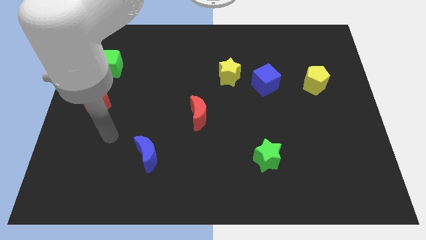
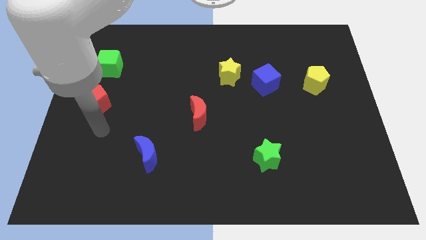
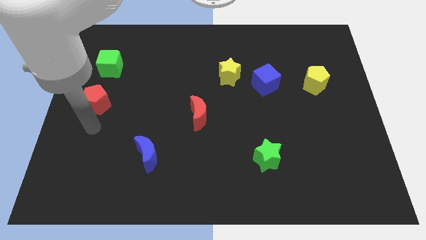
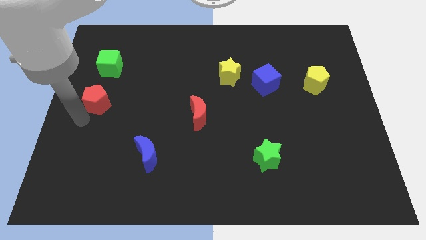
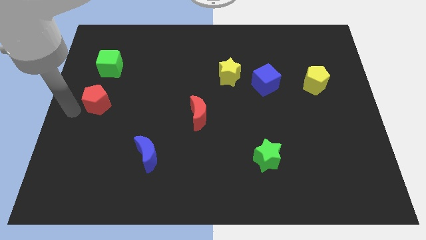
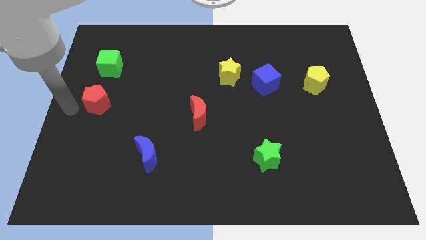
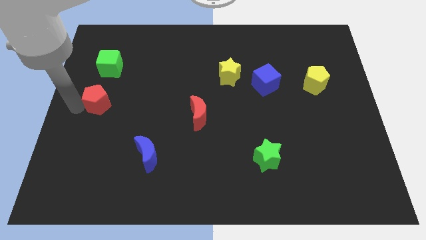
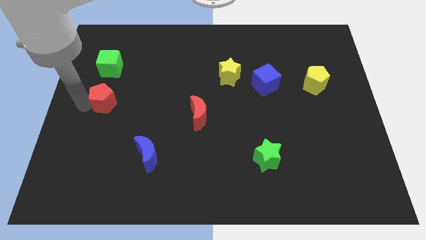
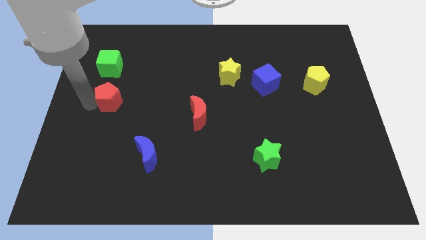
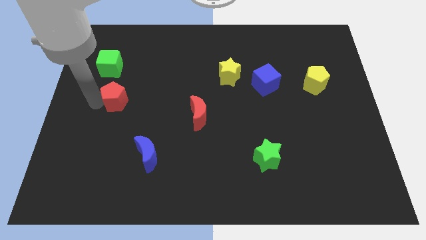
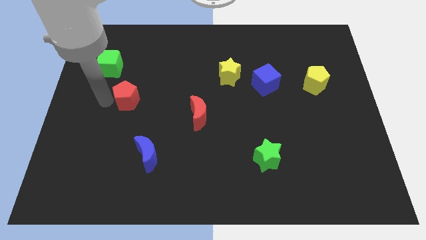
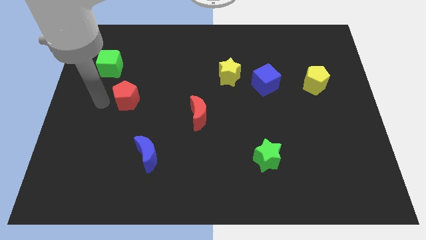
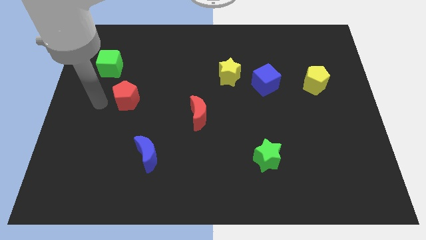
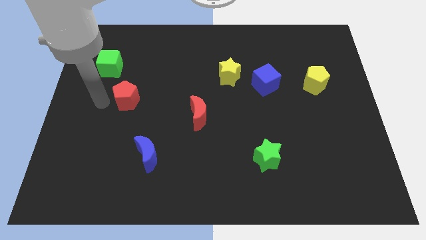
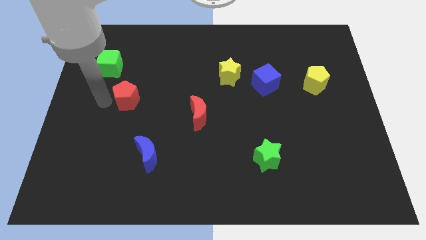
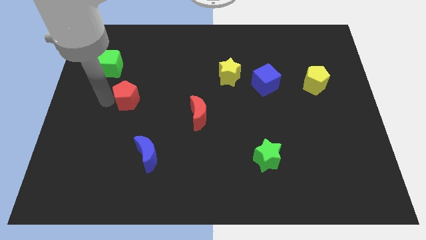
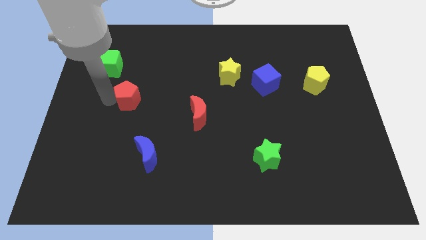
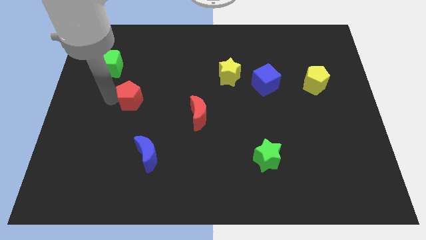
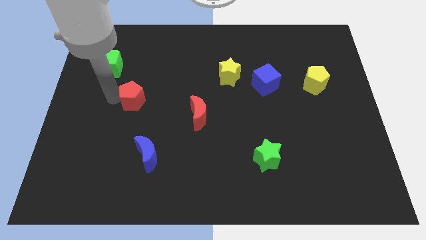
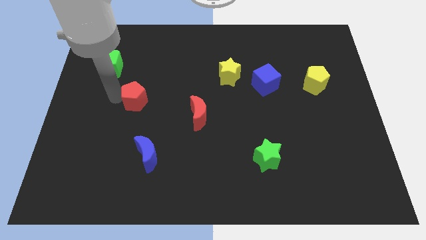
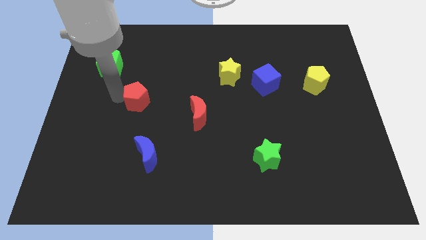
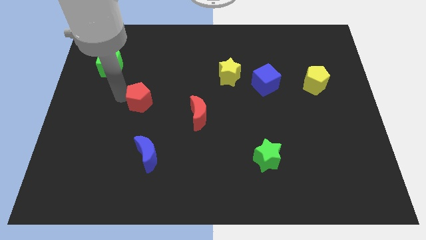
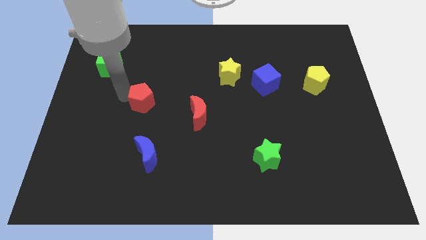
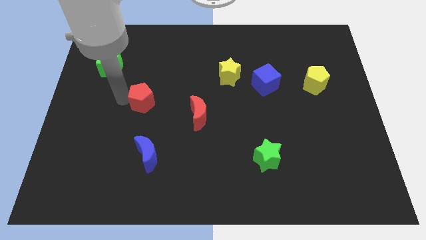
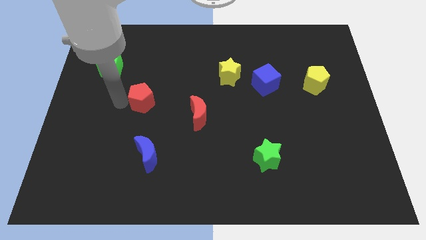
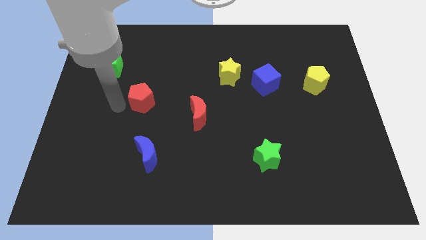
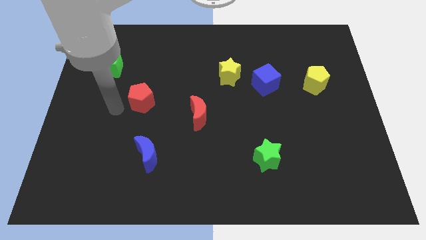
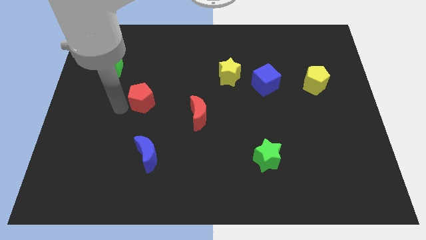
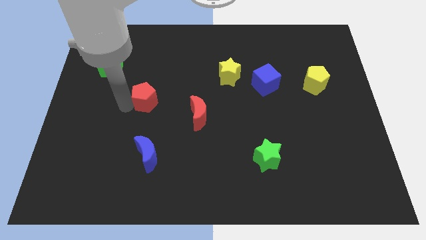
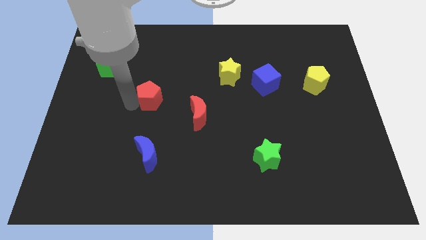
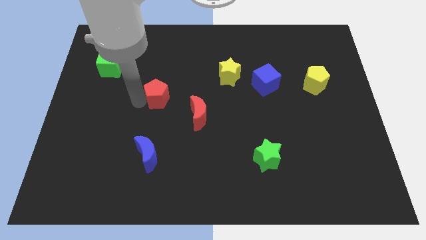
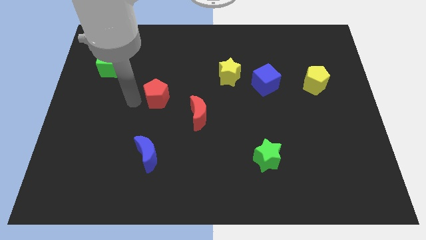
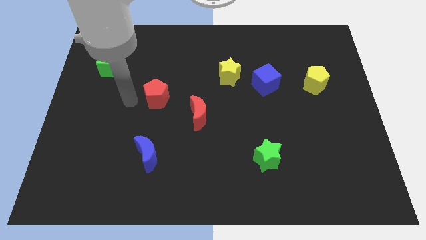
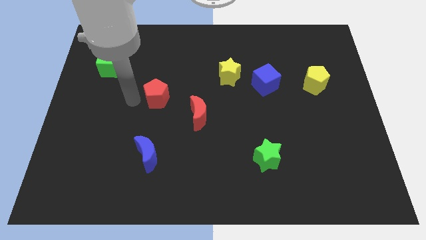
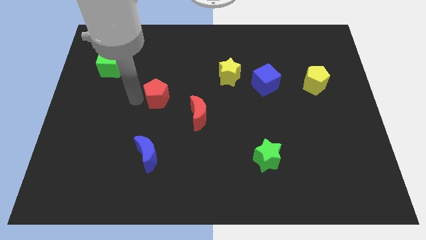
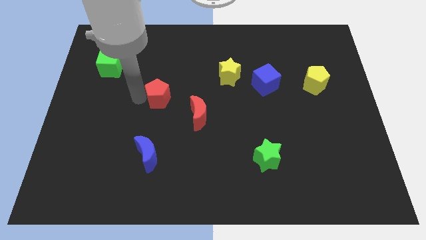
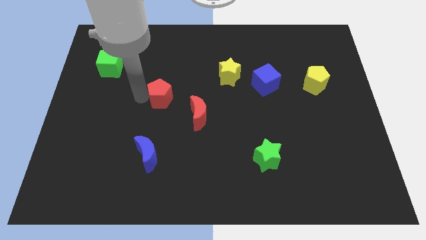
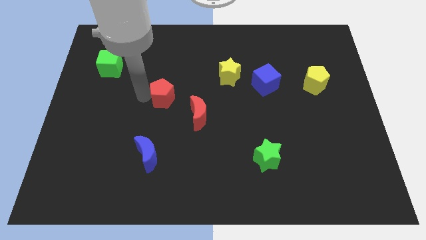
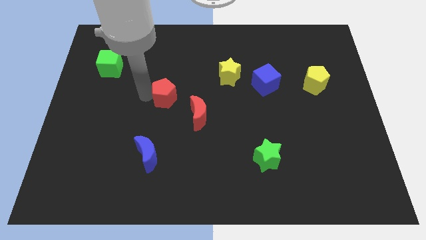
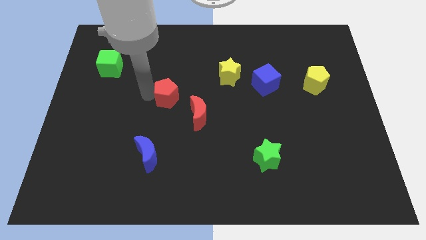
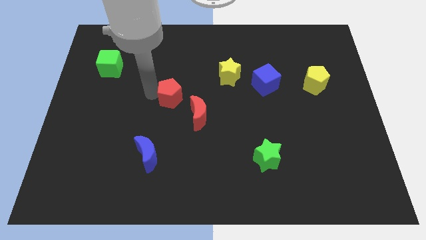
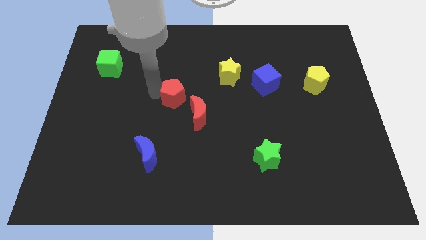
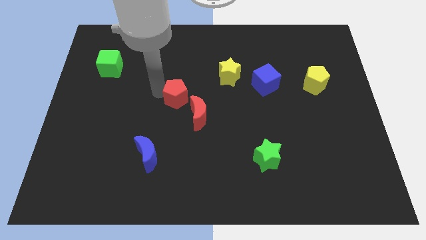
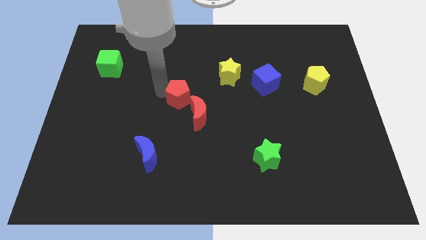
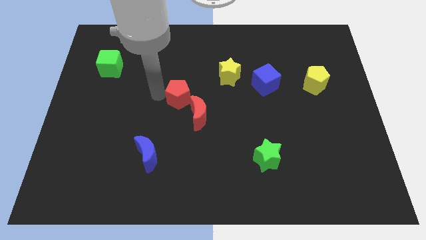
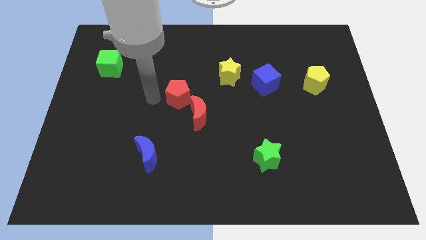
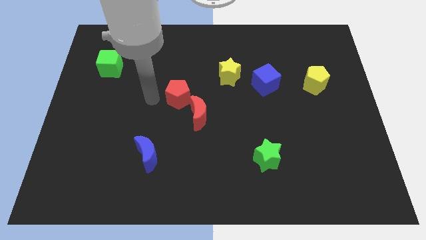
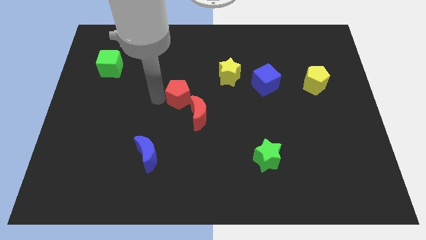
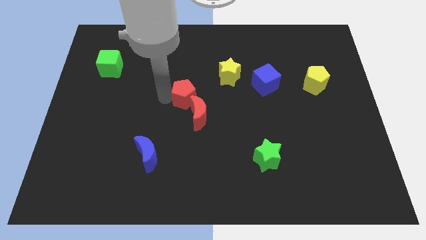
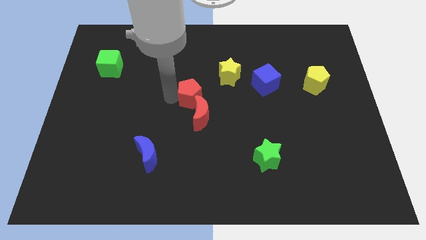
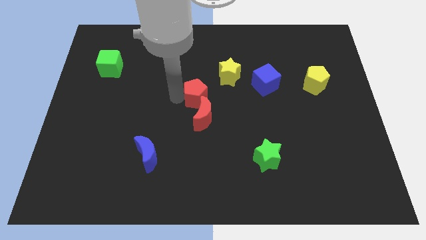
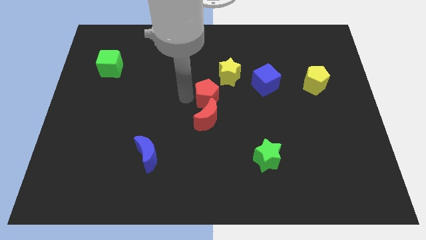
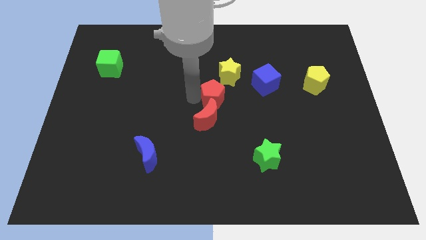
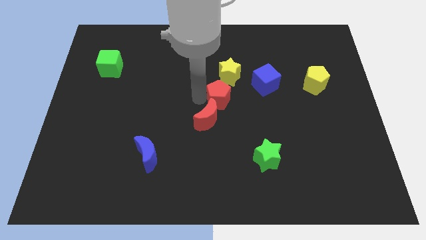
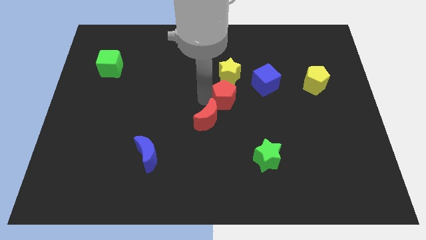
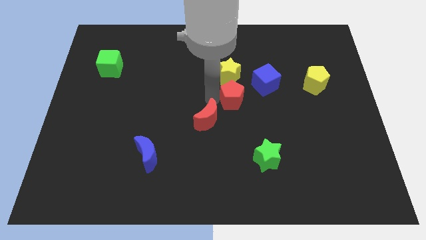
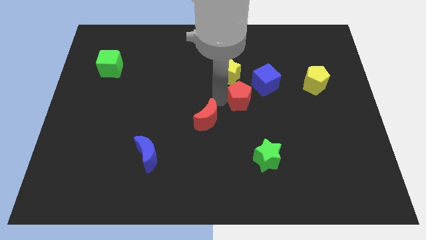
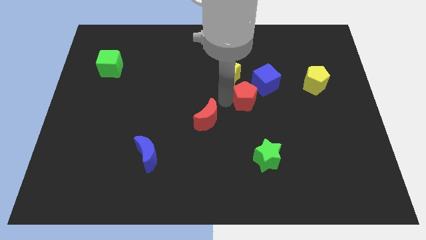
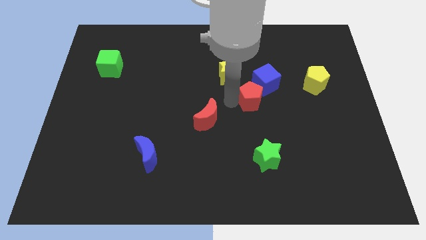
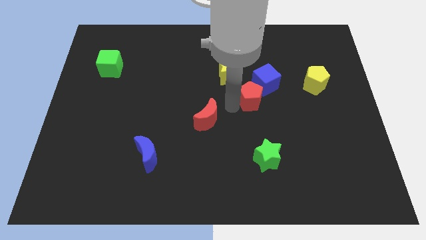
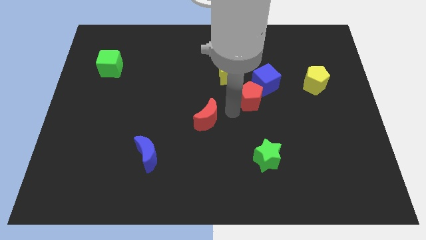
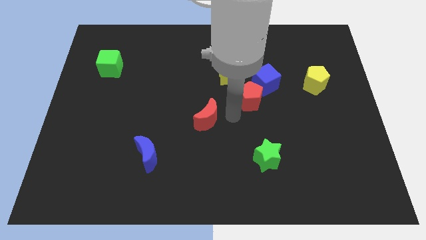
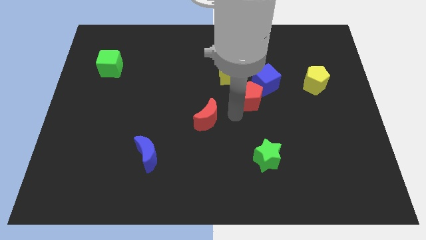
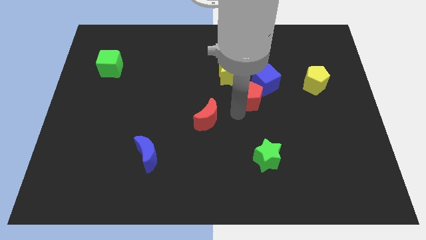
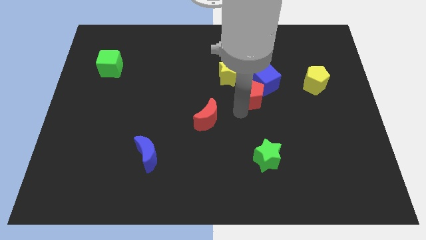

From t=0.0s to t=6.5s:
push the red pentagon to the blue cube

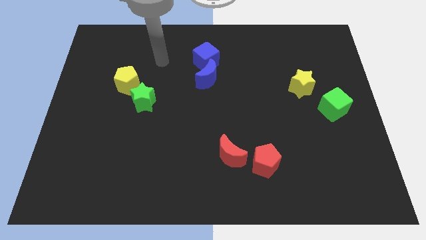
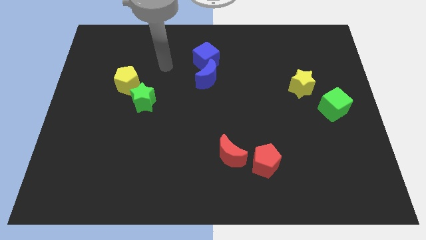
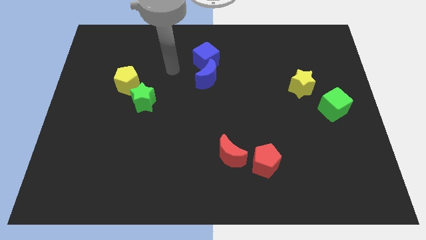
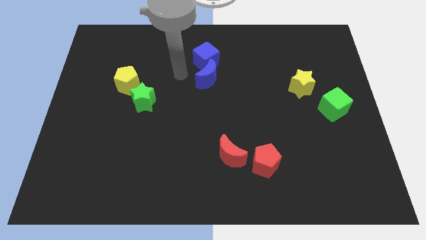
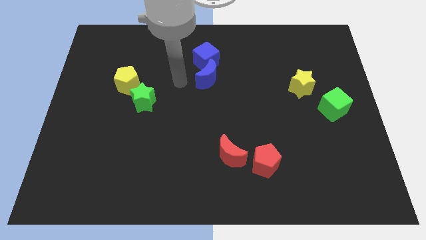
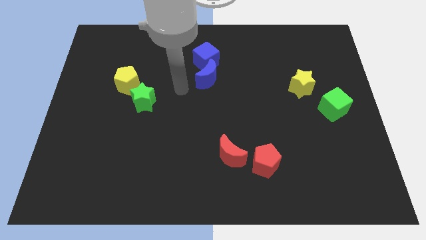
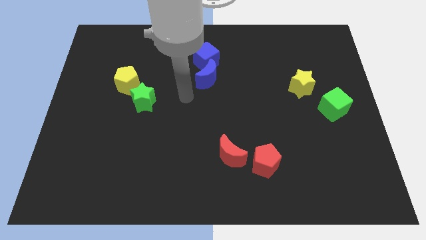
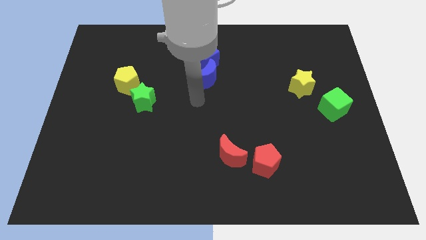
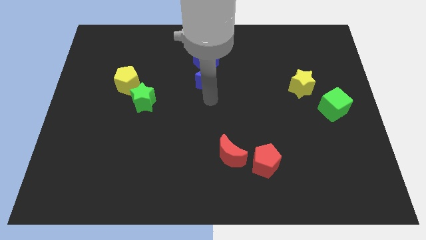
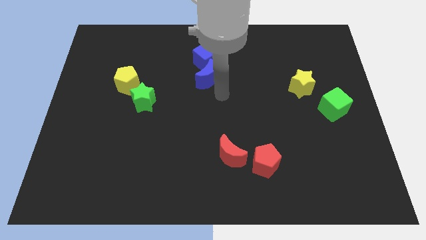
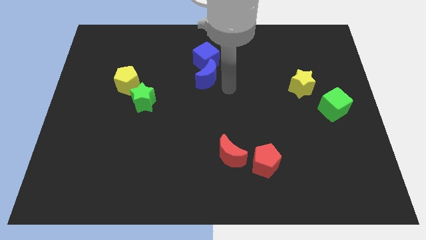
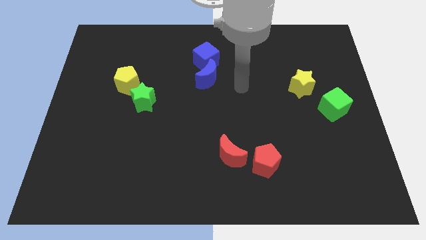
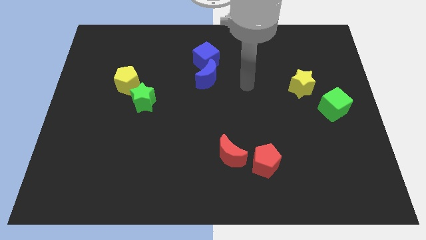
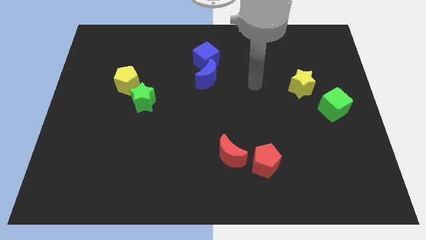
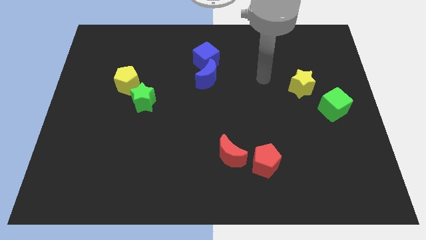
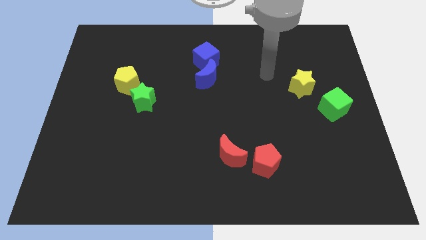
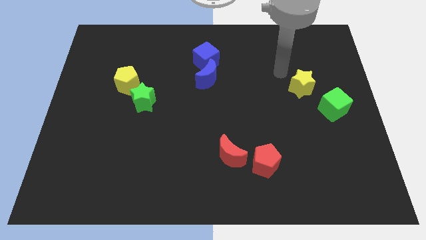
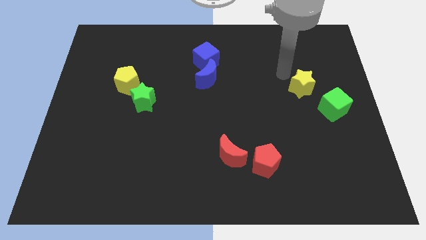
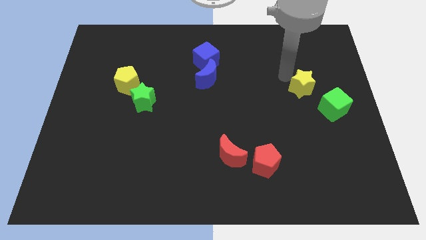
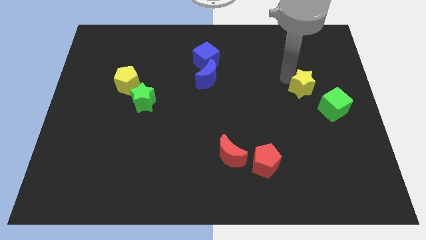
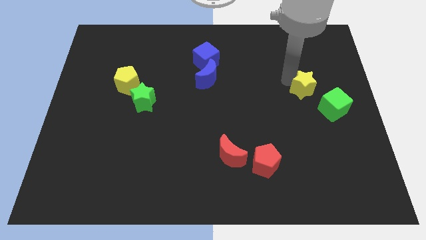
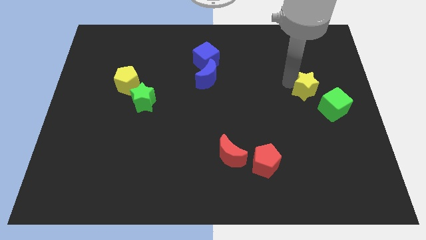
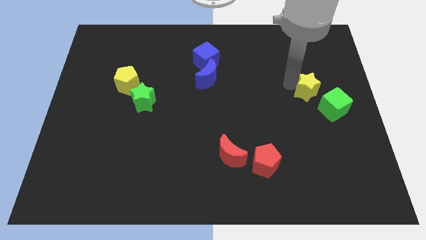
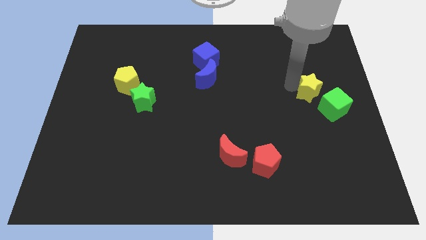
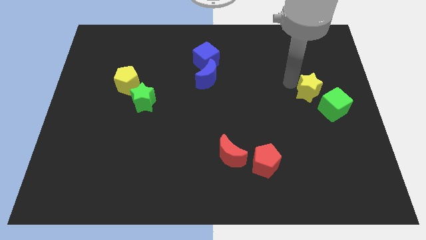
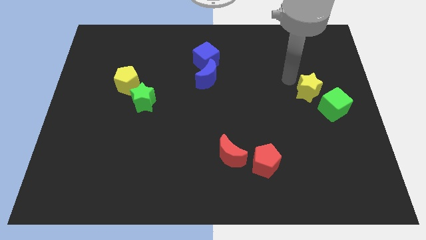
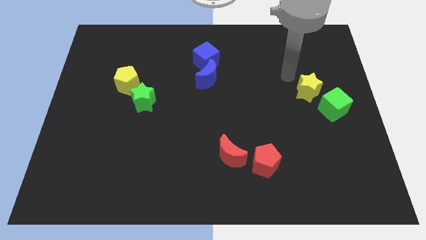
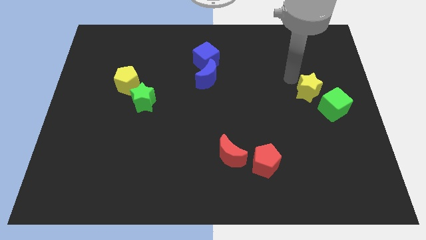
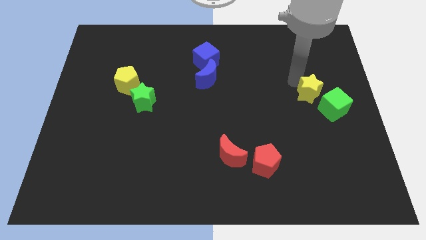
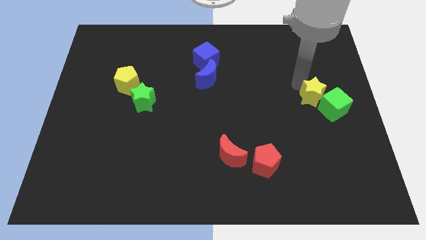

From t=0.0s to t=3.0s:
put the yellow star close to the green cube
